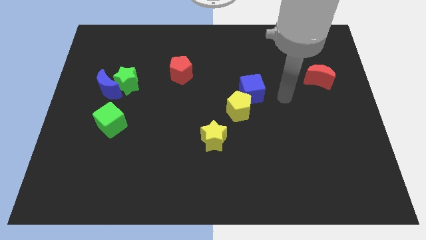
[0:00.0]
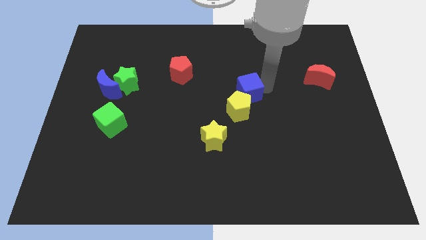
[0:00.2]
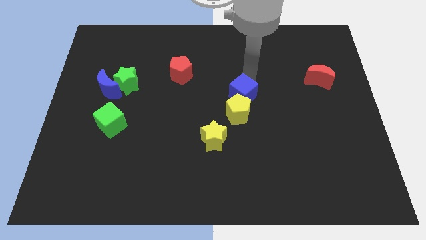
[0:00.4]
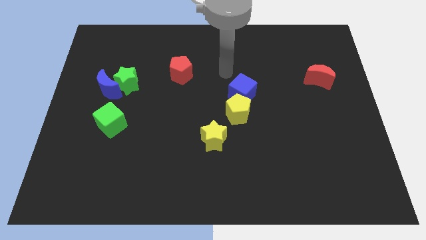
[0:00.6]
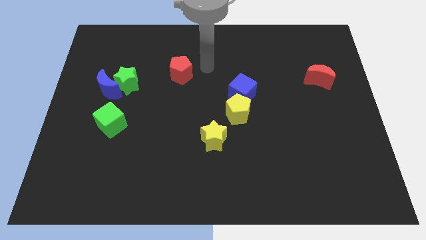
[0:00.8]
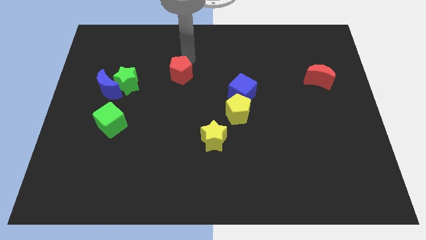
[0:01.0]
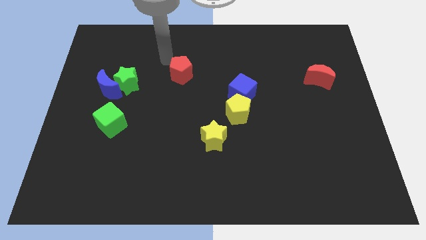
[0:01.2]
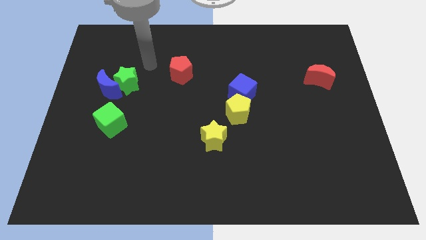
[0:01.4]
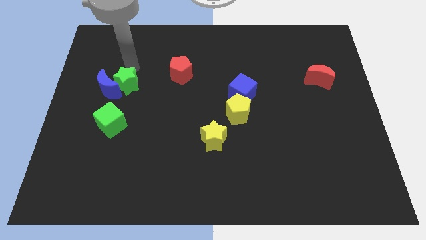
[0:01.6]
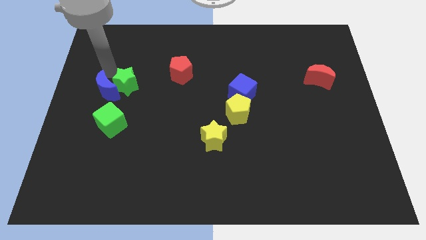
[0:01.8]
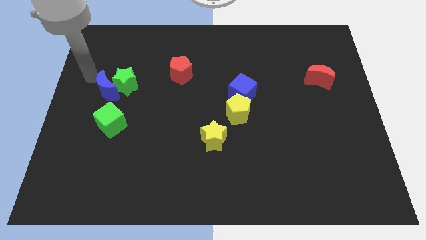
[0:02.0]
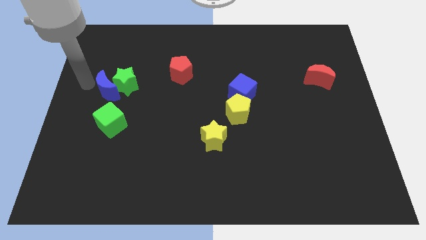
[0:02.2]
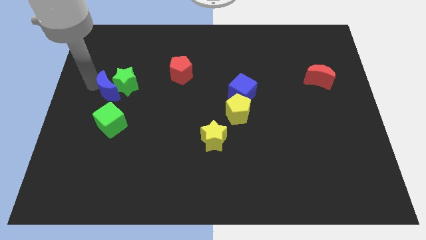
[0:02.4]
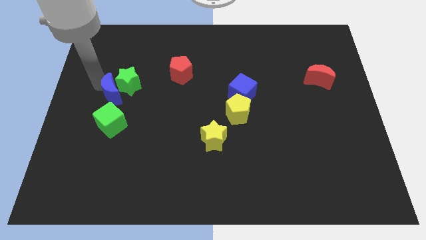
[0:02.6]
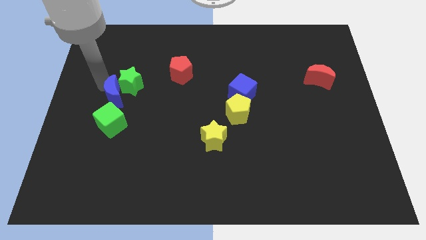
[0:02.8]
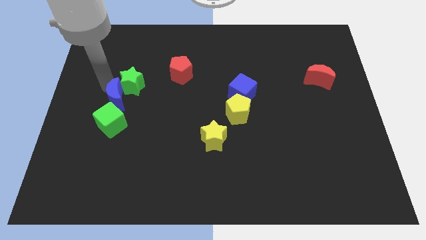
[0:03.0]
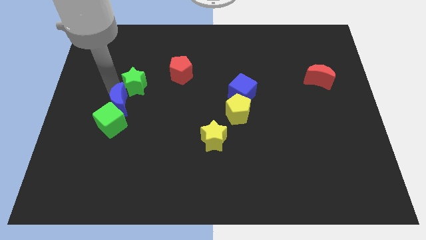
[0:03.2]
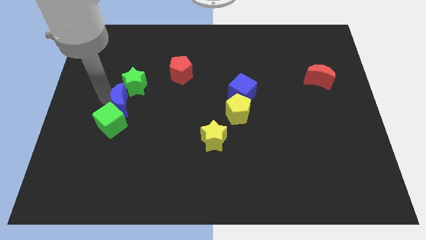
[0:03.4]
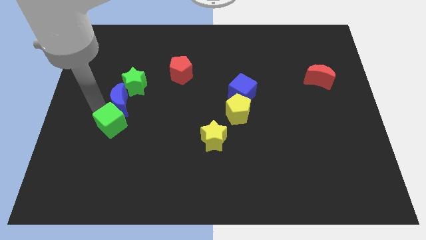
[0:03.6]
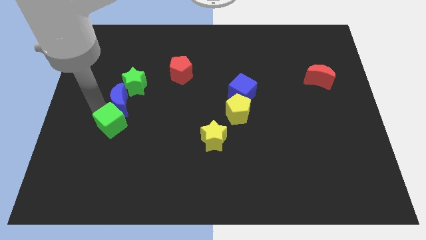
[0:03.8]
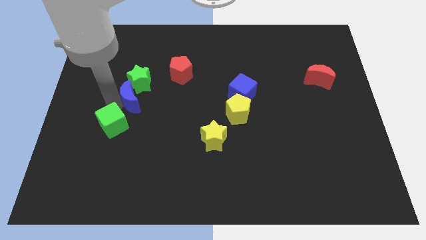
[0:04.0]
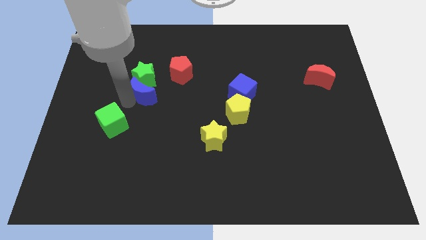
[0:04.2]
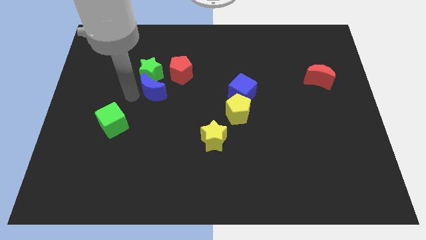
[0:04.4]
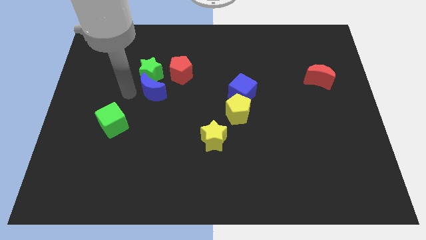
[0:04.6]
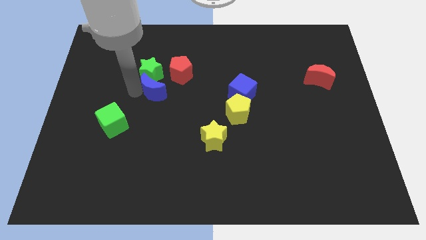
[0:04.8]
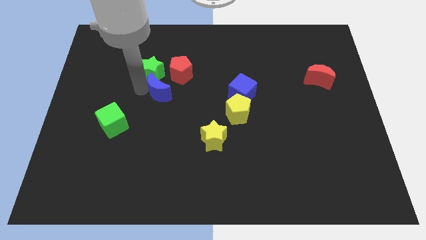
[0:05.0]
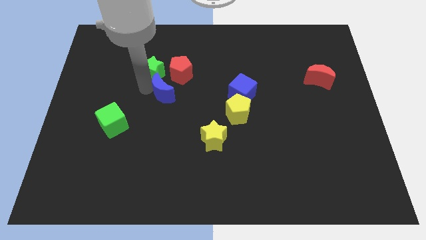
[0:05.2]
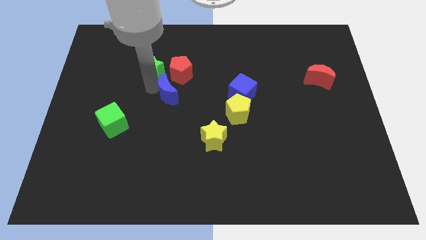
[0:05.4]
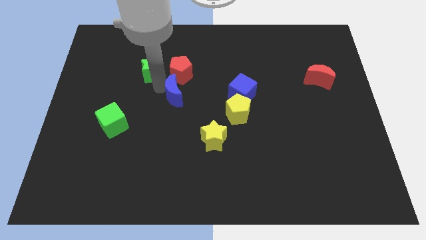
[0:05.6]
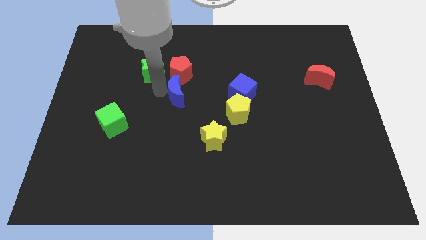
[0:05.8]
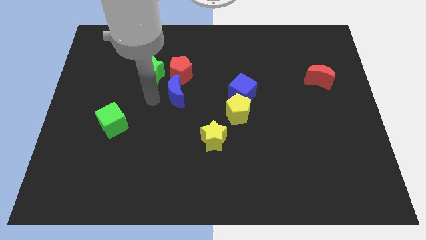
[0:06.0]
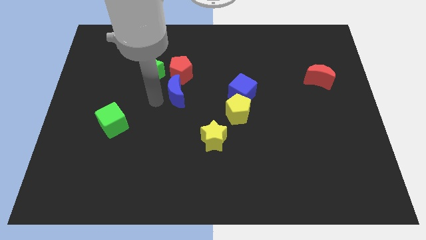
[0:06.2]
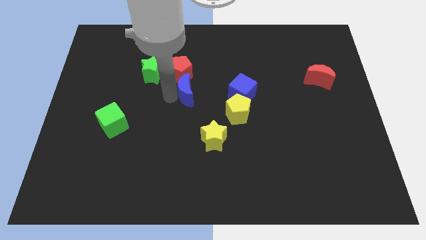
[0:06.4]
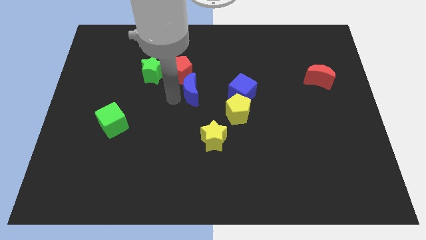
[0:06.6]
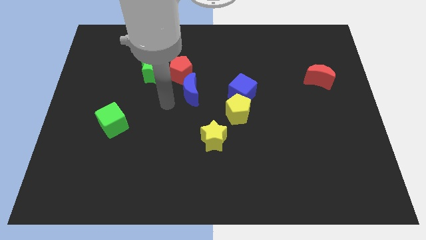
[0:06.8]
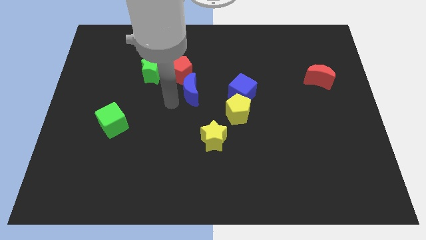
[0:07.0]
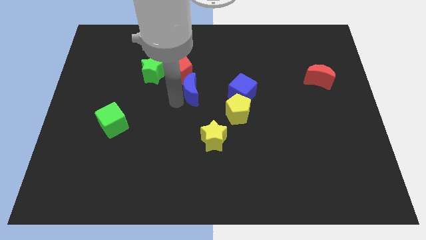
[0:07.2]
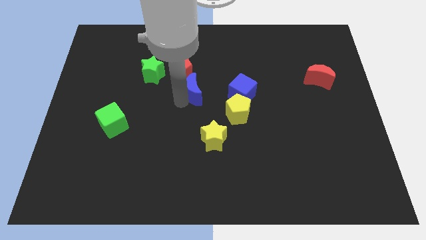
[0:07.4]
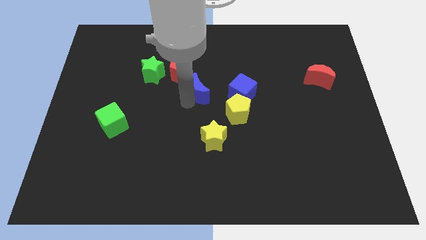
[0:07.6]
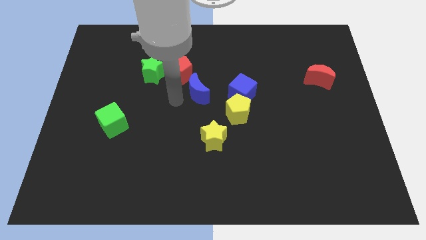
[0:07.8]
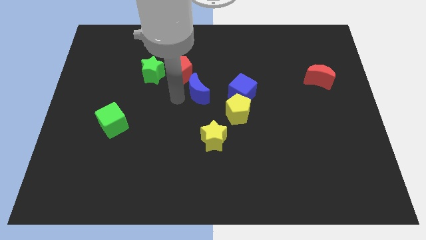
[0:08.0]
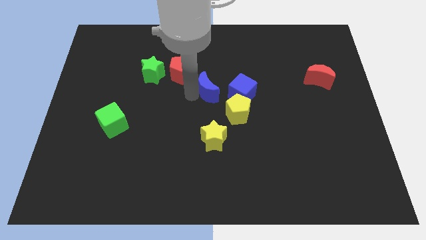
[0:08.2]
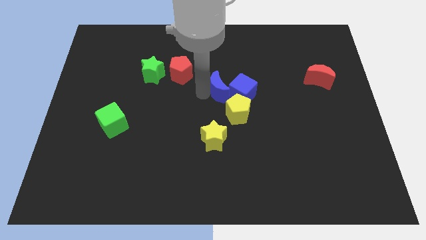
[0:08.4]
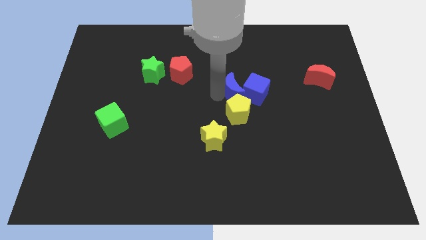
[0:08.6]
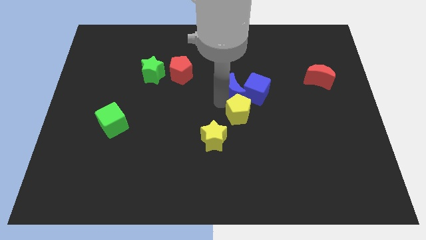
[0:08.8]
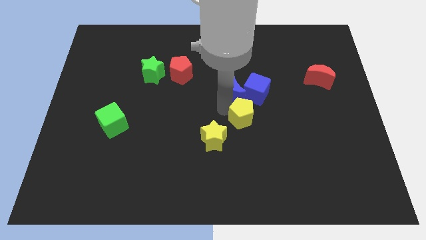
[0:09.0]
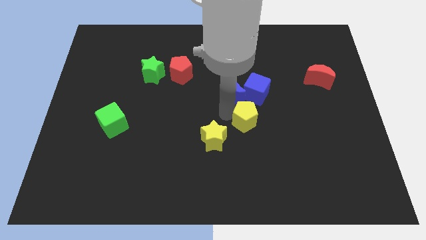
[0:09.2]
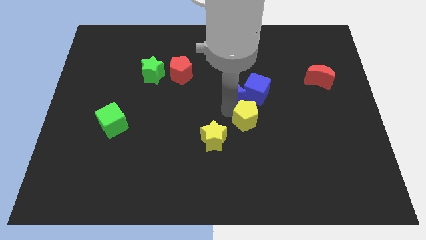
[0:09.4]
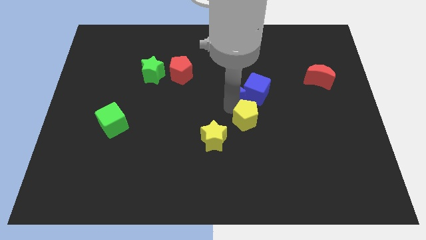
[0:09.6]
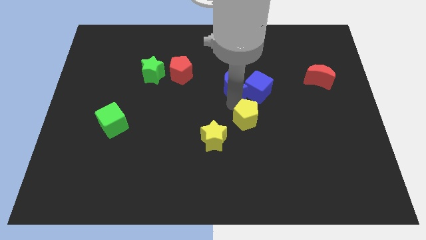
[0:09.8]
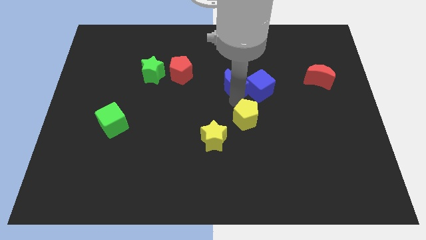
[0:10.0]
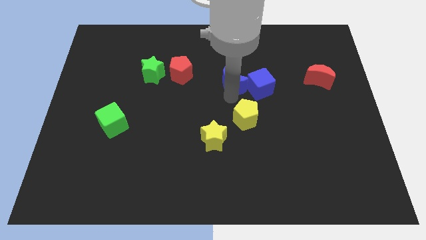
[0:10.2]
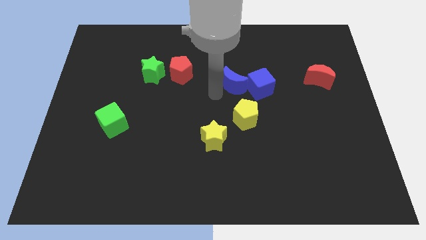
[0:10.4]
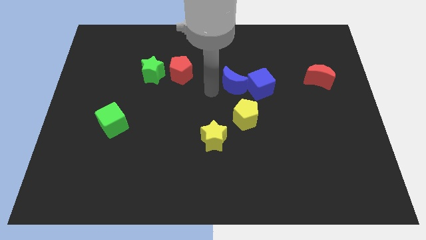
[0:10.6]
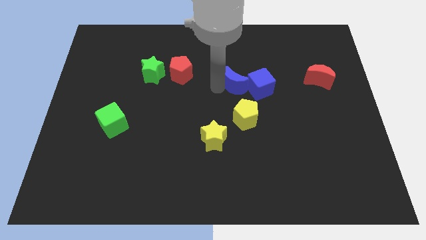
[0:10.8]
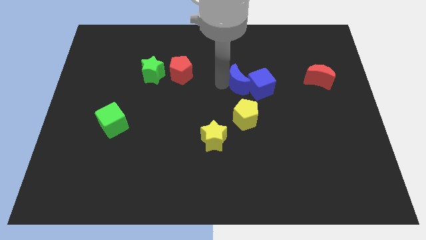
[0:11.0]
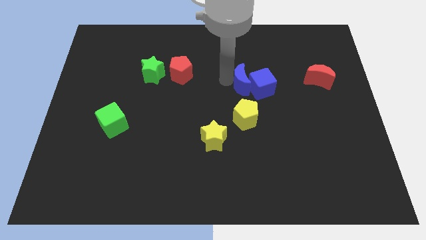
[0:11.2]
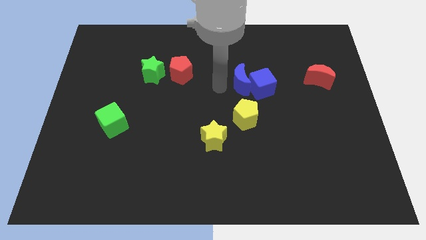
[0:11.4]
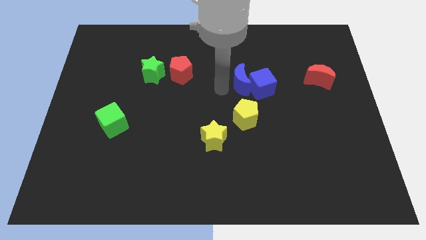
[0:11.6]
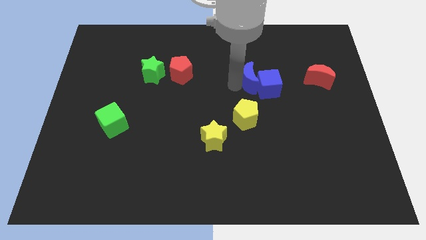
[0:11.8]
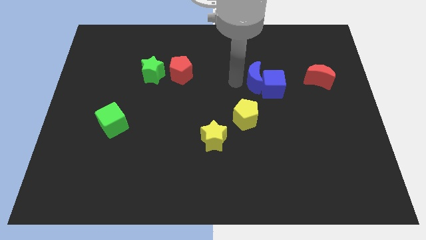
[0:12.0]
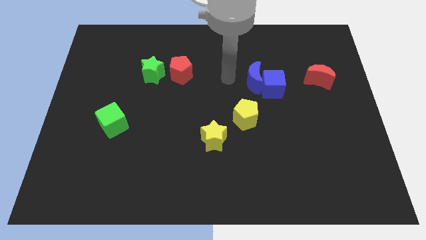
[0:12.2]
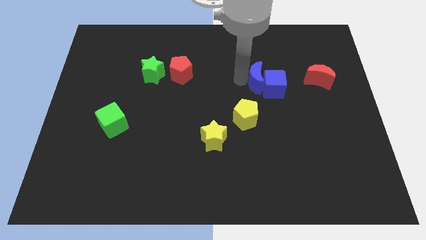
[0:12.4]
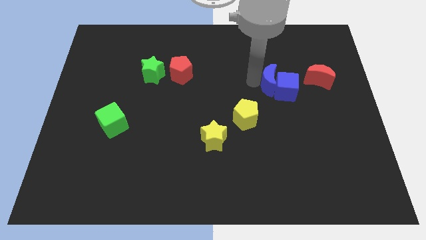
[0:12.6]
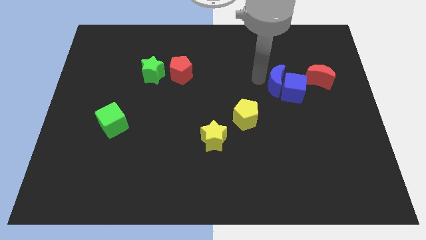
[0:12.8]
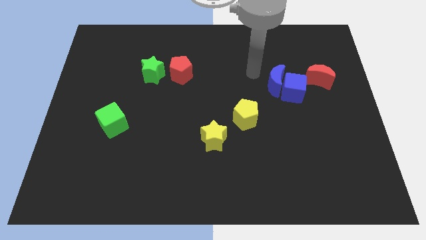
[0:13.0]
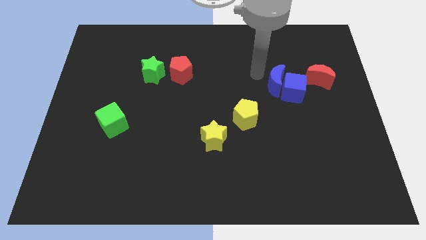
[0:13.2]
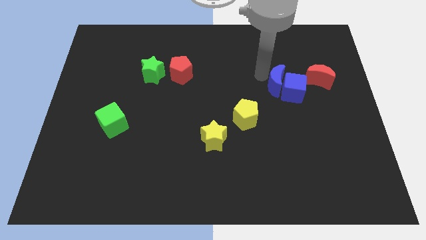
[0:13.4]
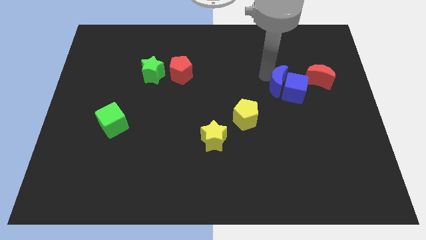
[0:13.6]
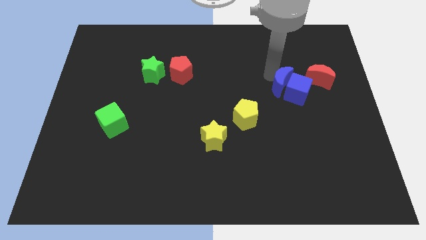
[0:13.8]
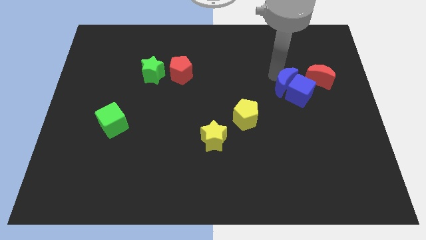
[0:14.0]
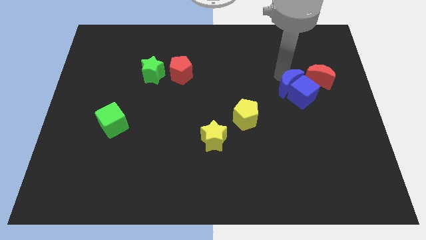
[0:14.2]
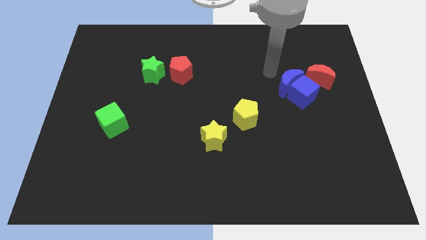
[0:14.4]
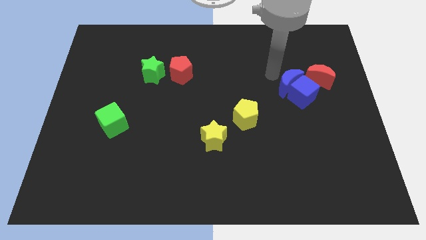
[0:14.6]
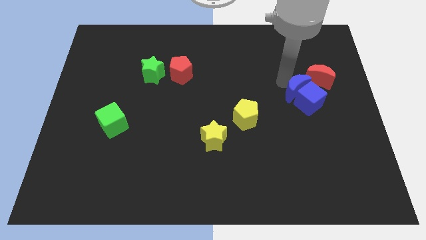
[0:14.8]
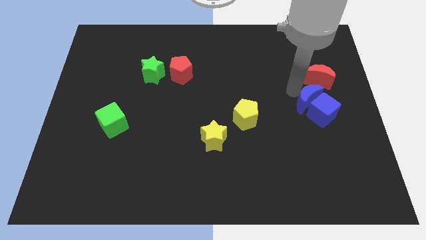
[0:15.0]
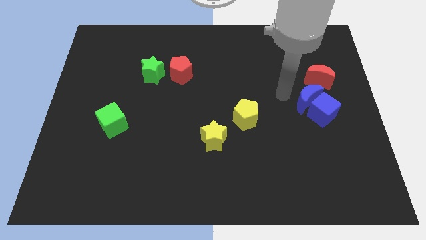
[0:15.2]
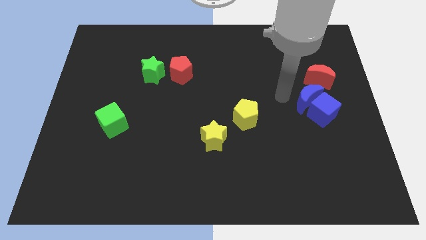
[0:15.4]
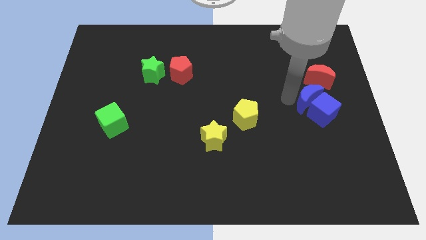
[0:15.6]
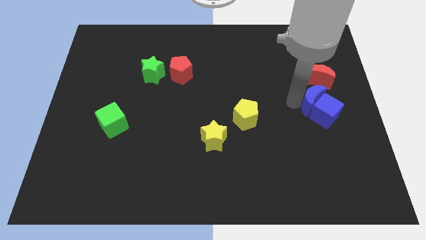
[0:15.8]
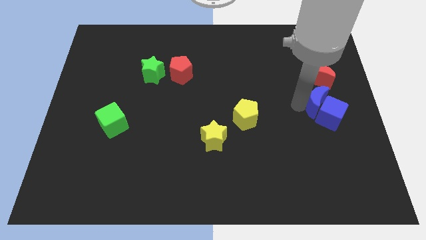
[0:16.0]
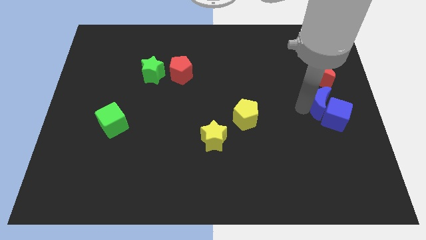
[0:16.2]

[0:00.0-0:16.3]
move the blue moon to the center right
